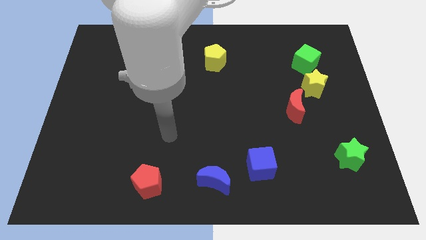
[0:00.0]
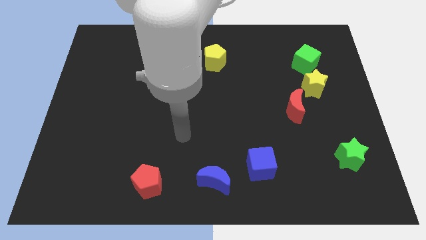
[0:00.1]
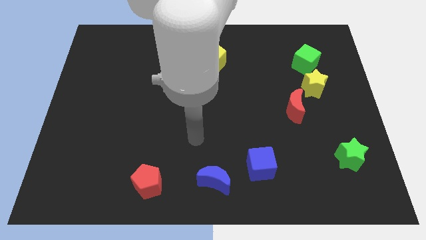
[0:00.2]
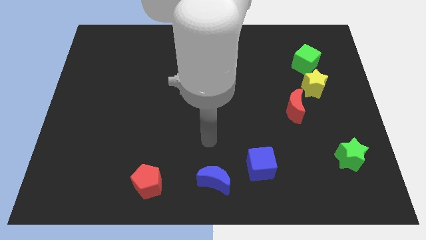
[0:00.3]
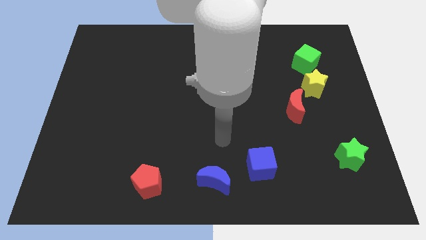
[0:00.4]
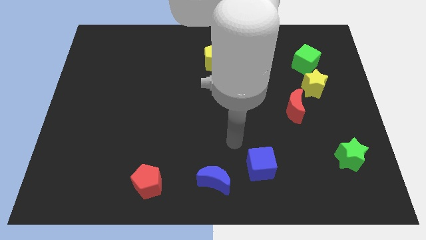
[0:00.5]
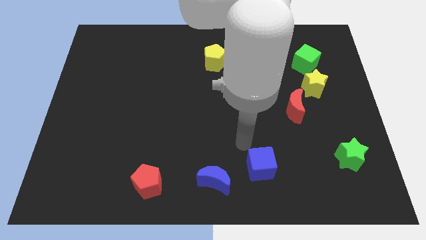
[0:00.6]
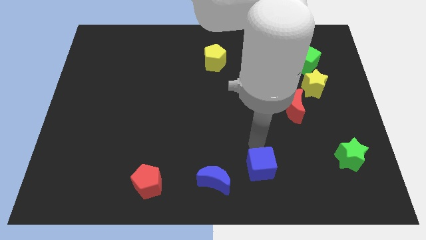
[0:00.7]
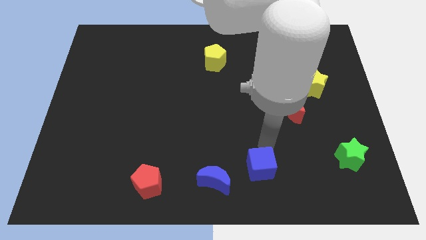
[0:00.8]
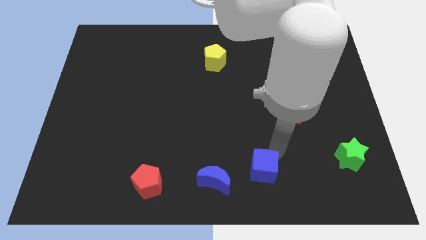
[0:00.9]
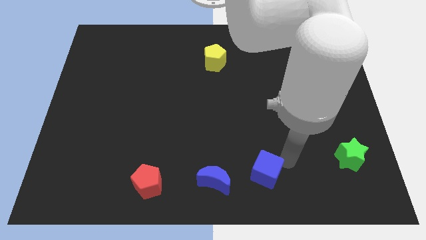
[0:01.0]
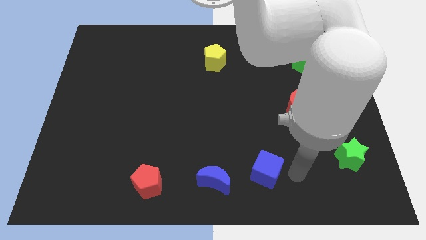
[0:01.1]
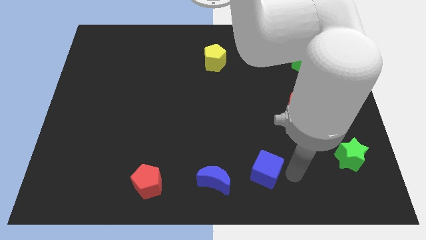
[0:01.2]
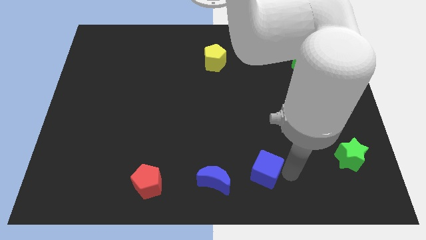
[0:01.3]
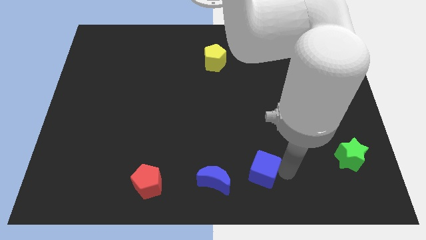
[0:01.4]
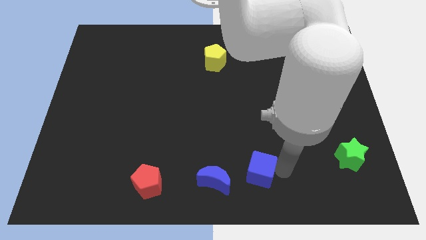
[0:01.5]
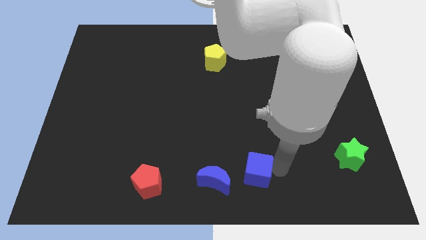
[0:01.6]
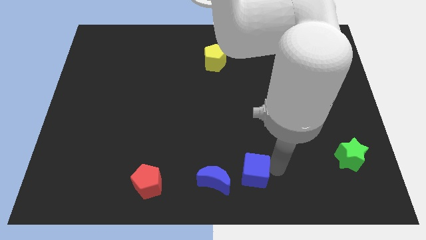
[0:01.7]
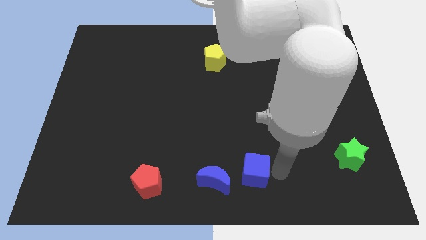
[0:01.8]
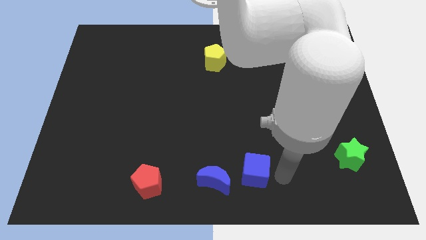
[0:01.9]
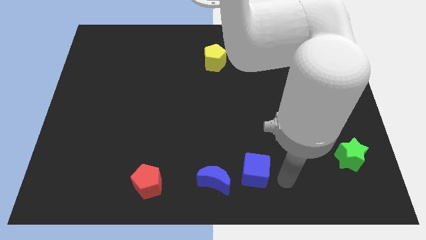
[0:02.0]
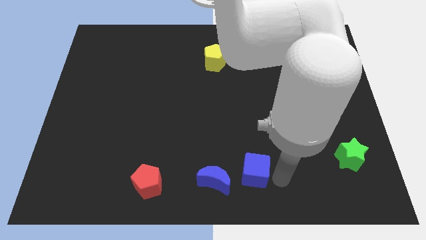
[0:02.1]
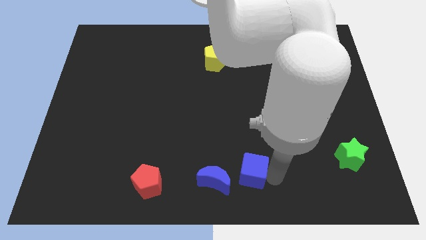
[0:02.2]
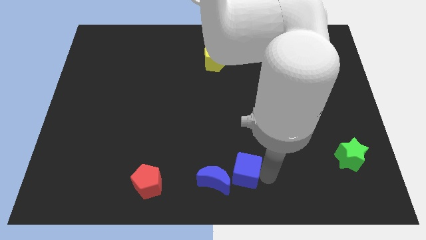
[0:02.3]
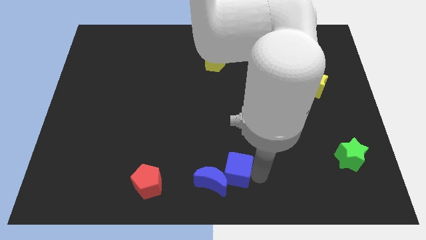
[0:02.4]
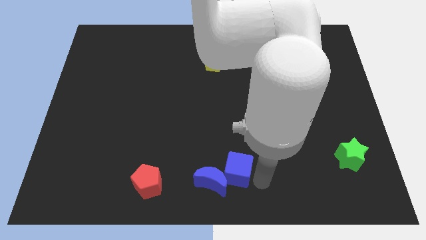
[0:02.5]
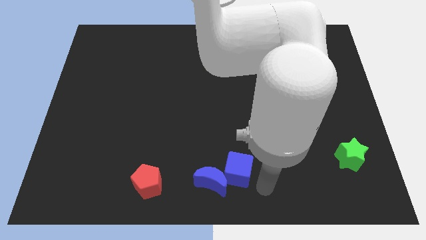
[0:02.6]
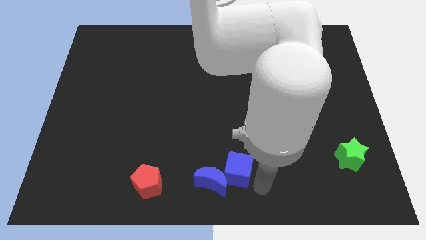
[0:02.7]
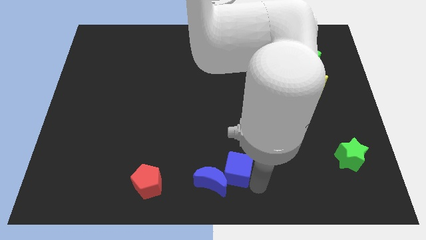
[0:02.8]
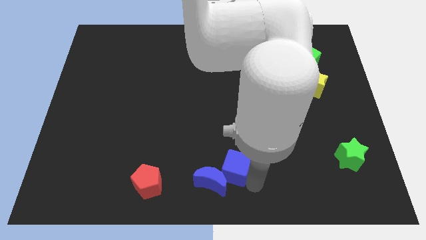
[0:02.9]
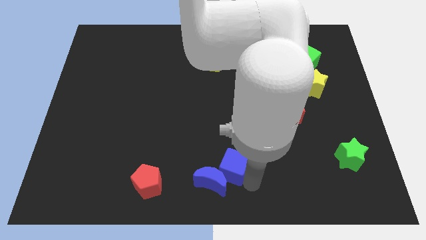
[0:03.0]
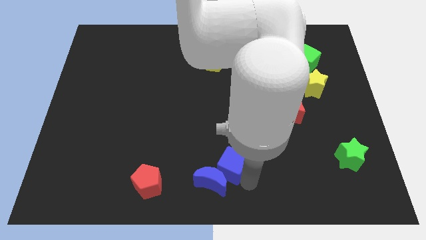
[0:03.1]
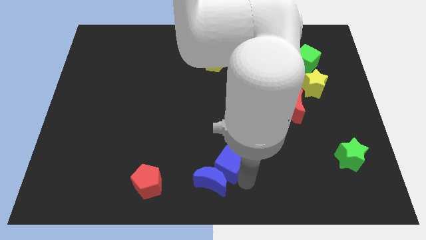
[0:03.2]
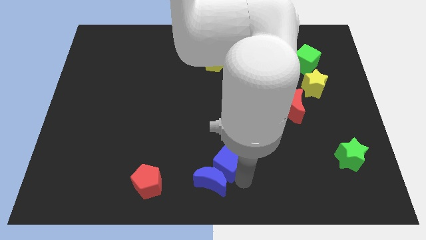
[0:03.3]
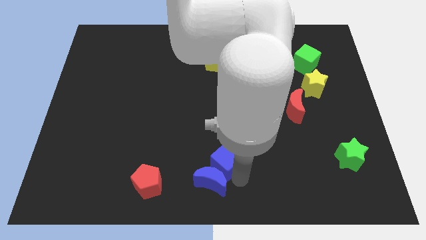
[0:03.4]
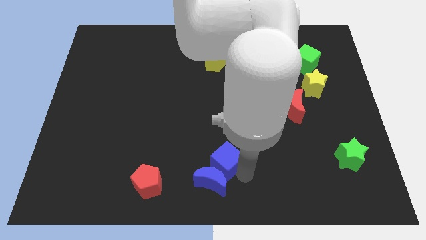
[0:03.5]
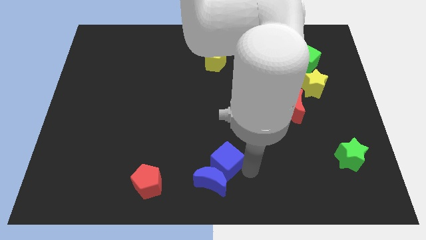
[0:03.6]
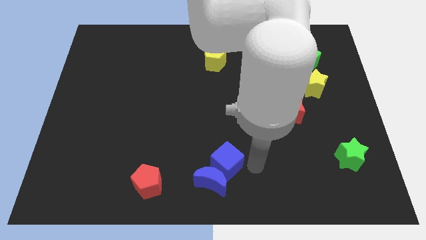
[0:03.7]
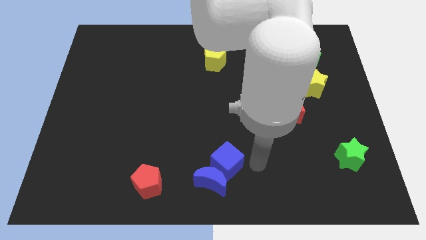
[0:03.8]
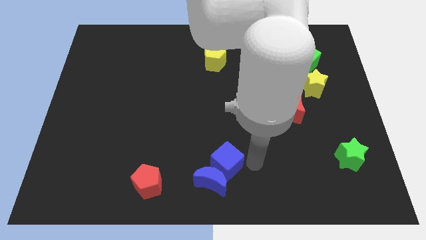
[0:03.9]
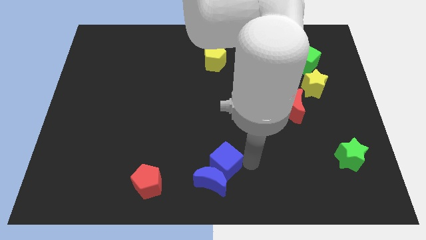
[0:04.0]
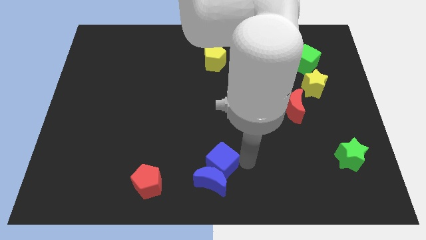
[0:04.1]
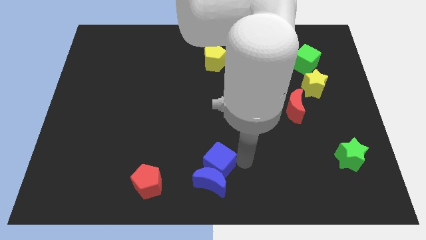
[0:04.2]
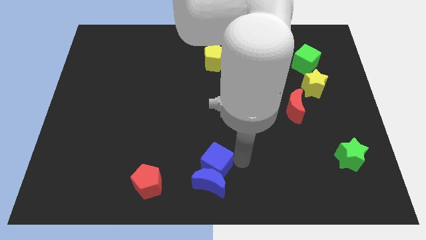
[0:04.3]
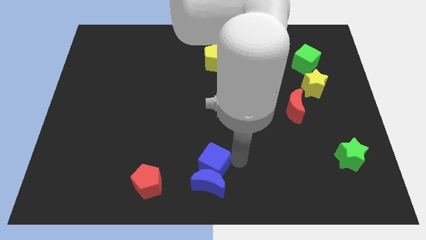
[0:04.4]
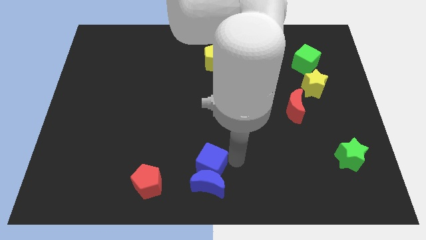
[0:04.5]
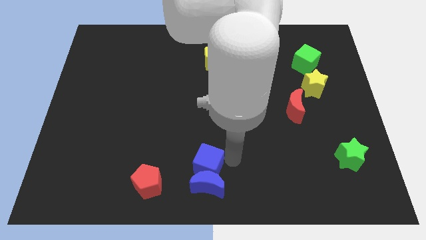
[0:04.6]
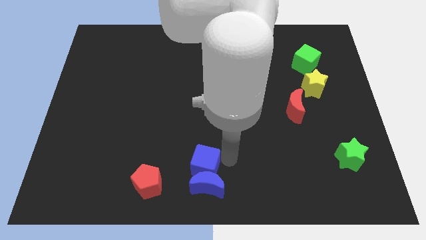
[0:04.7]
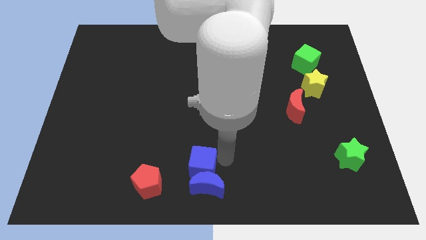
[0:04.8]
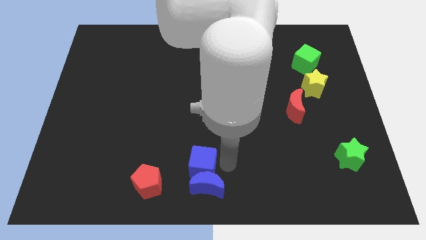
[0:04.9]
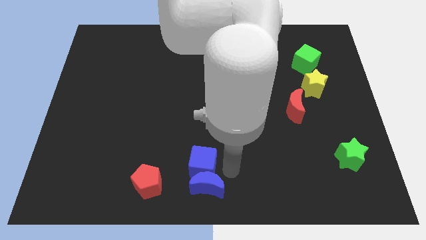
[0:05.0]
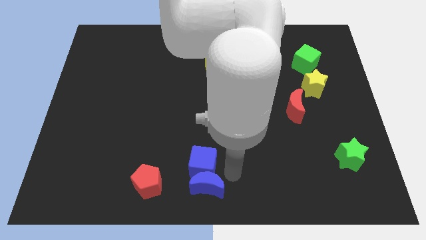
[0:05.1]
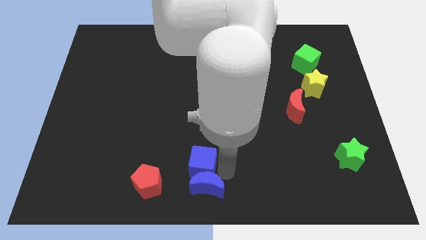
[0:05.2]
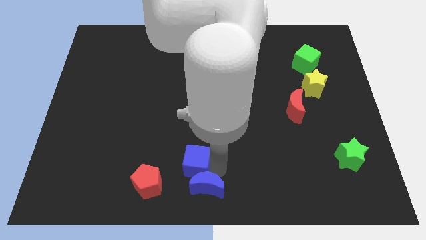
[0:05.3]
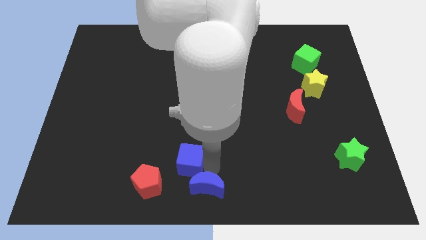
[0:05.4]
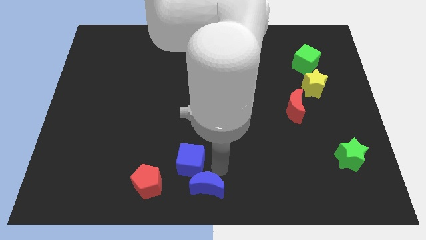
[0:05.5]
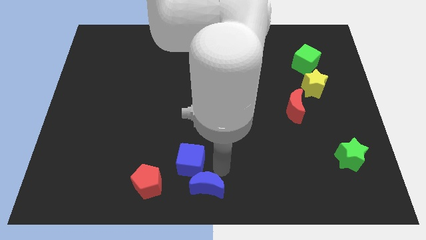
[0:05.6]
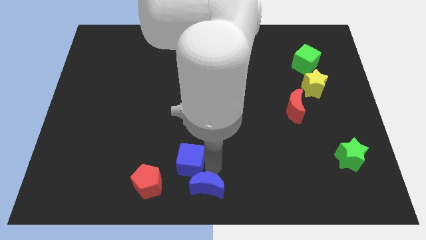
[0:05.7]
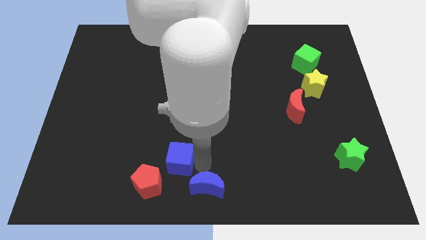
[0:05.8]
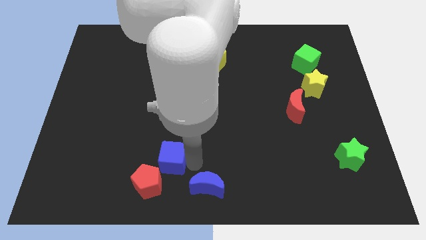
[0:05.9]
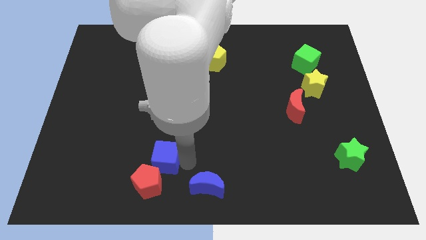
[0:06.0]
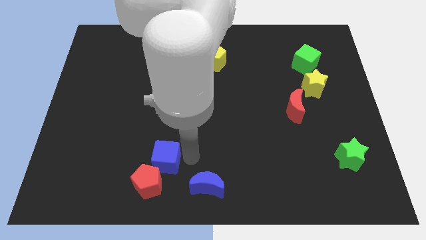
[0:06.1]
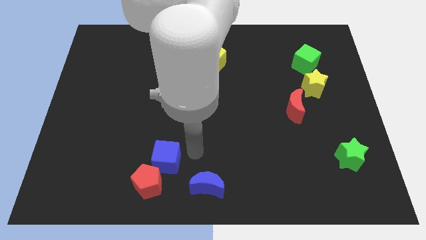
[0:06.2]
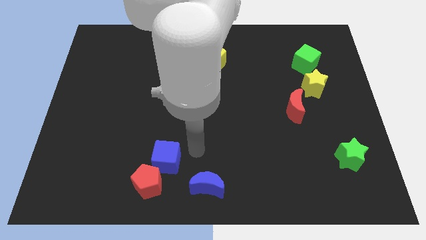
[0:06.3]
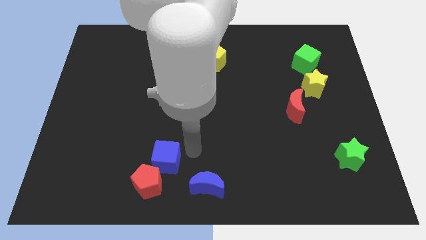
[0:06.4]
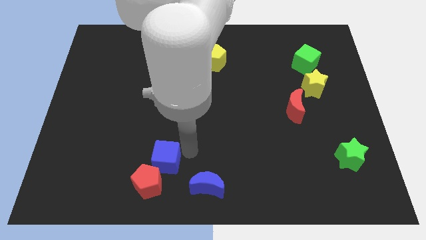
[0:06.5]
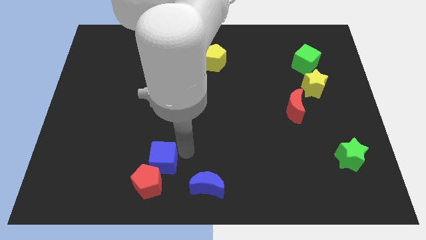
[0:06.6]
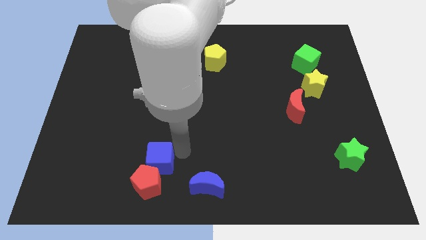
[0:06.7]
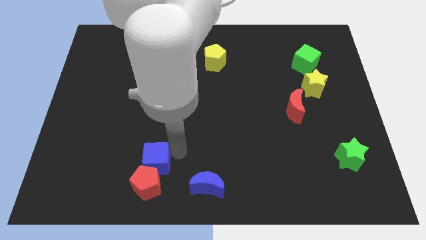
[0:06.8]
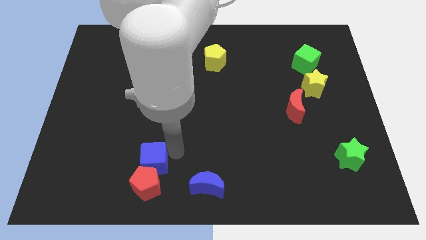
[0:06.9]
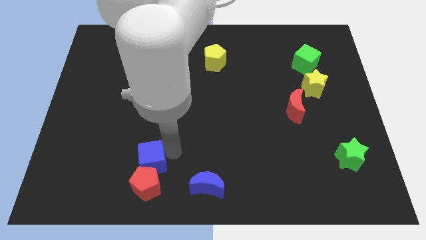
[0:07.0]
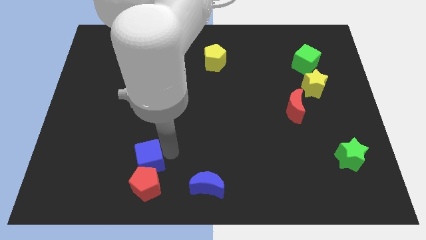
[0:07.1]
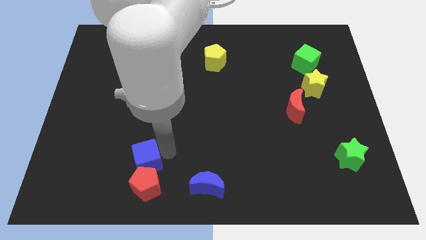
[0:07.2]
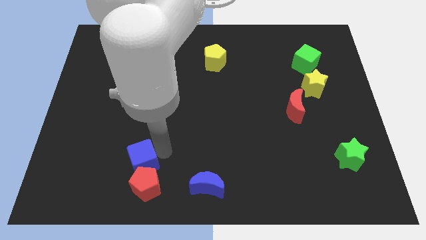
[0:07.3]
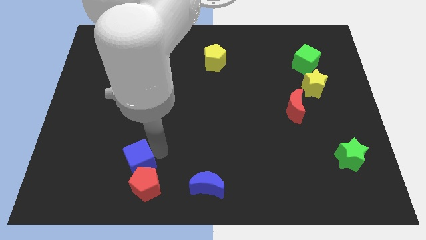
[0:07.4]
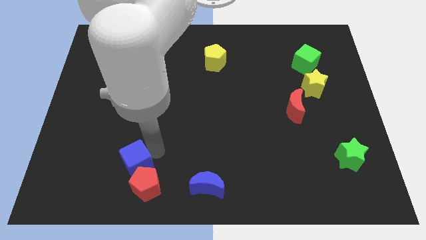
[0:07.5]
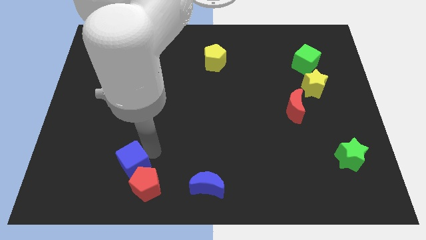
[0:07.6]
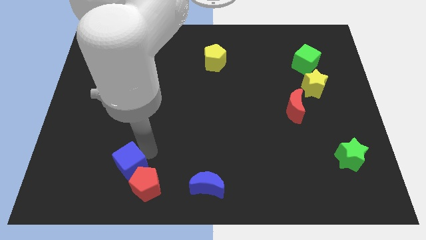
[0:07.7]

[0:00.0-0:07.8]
push the blue cube just left of the red pentagon
